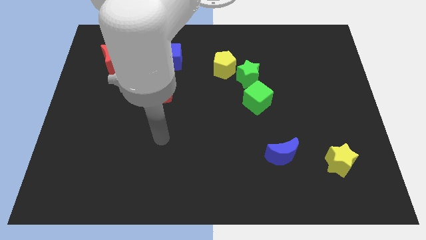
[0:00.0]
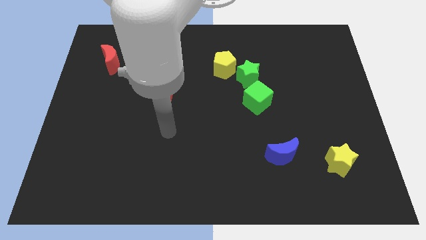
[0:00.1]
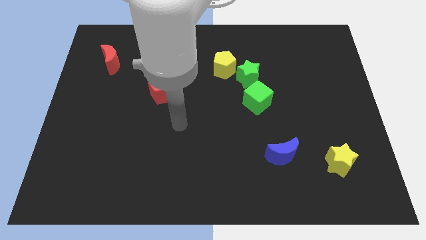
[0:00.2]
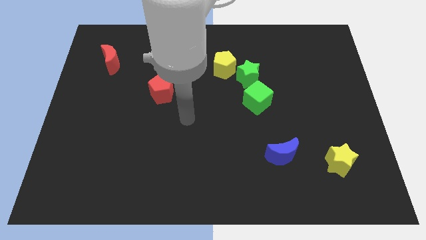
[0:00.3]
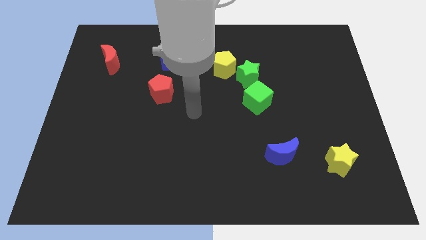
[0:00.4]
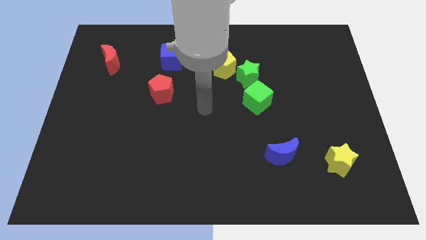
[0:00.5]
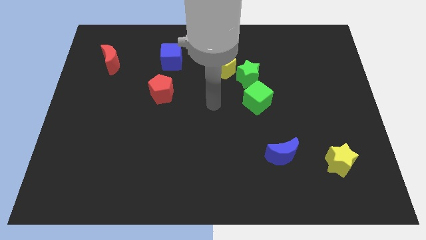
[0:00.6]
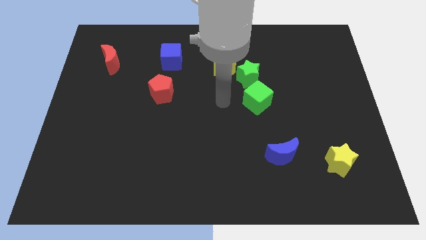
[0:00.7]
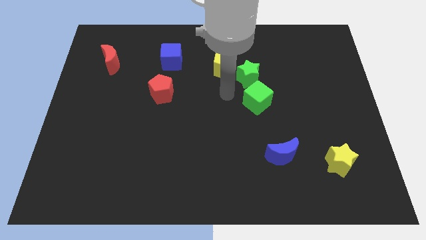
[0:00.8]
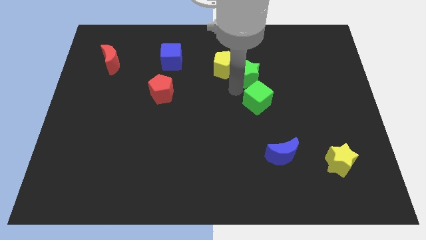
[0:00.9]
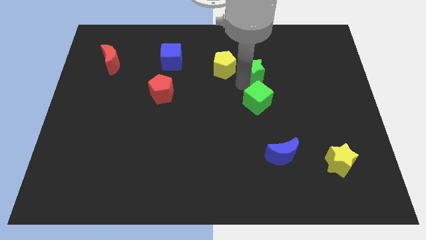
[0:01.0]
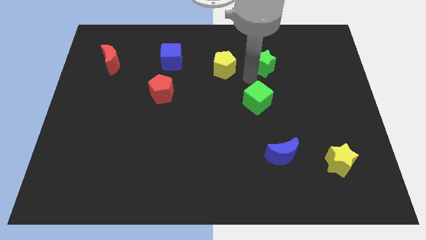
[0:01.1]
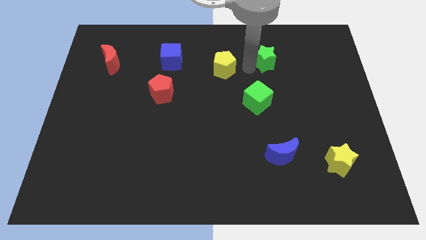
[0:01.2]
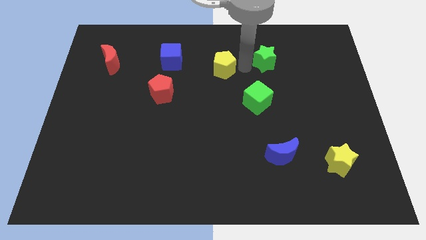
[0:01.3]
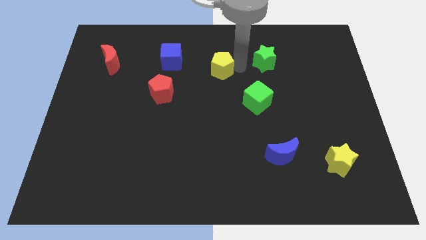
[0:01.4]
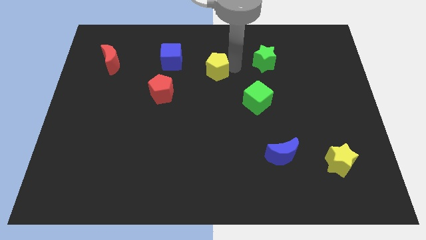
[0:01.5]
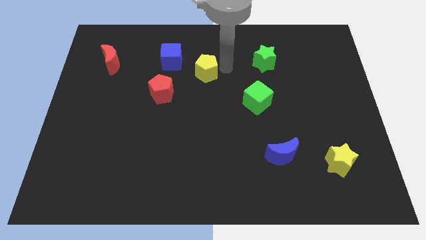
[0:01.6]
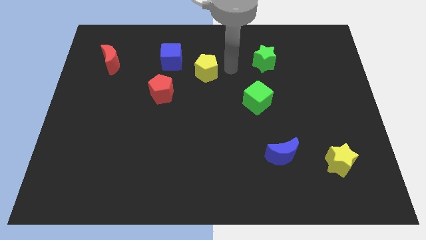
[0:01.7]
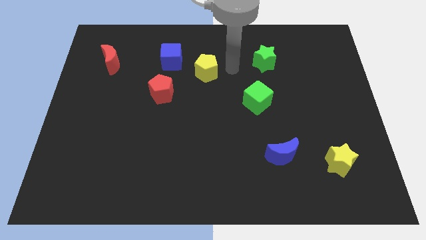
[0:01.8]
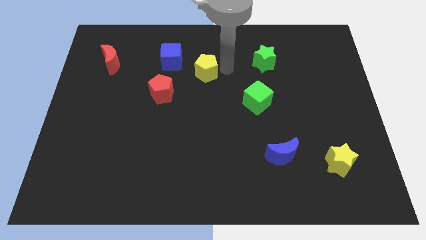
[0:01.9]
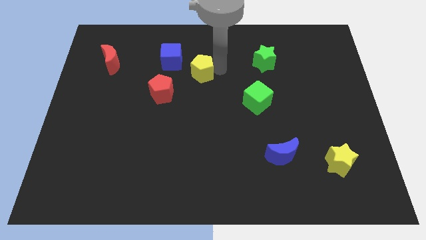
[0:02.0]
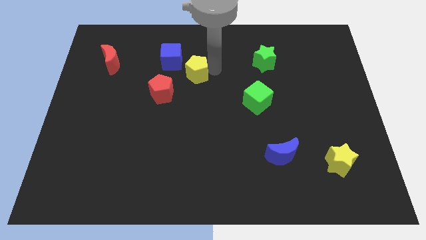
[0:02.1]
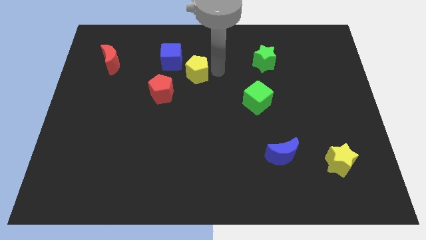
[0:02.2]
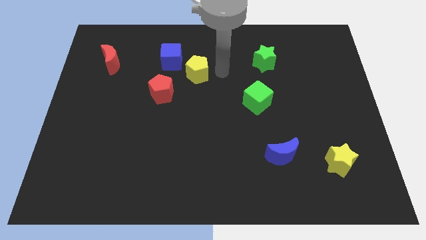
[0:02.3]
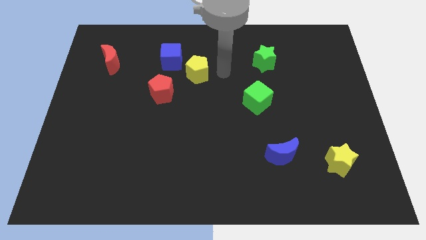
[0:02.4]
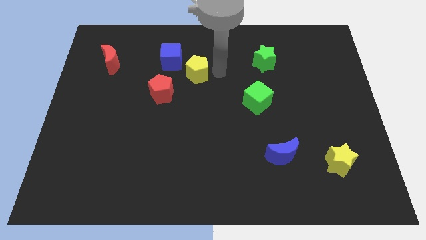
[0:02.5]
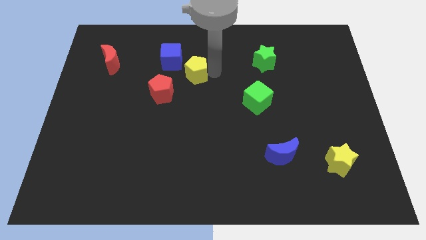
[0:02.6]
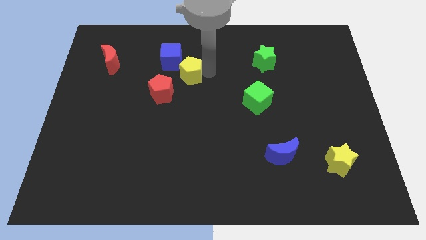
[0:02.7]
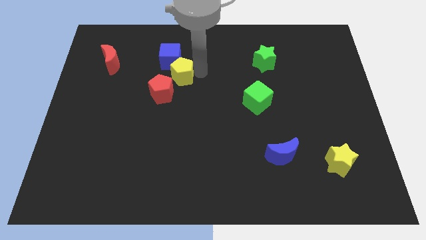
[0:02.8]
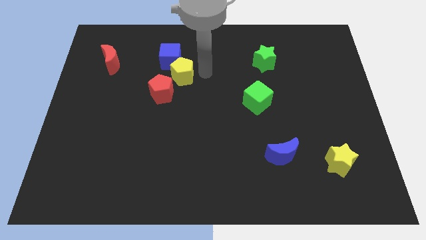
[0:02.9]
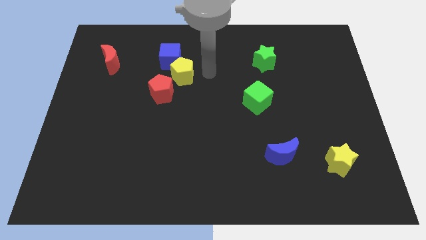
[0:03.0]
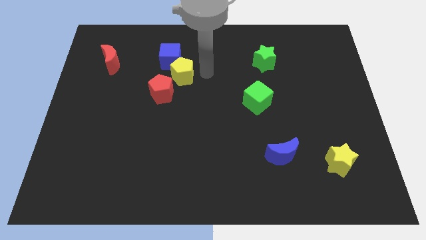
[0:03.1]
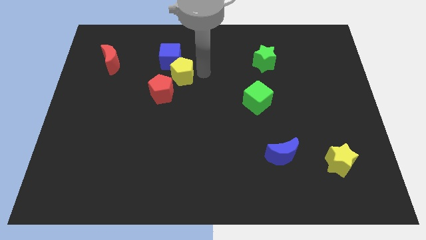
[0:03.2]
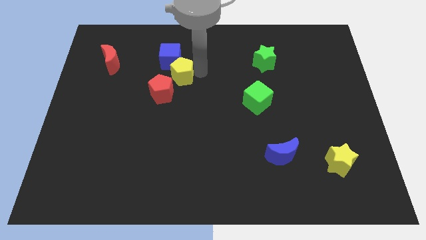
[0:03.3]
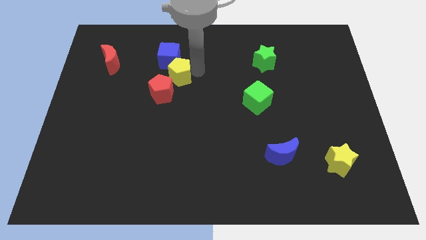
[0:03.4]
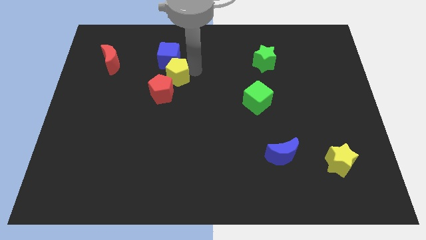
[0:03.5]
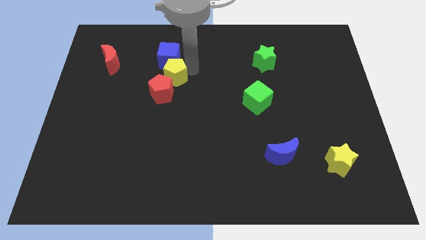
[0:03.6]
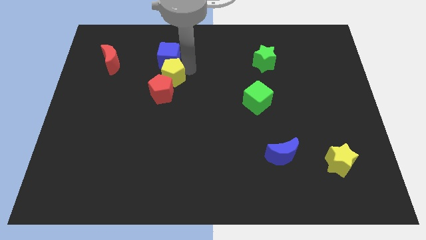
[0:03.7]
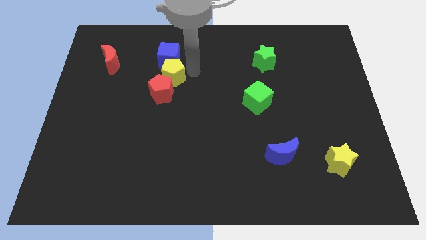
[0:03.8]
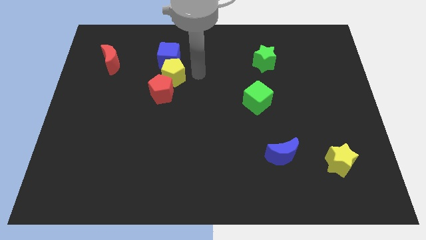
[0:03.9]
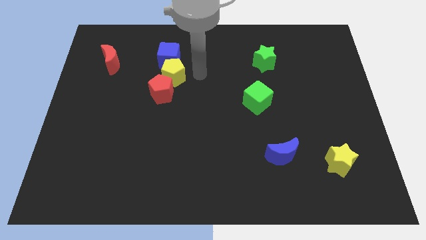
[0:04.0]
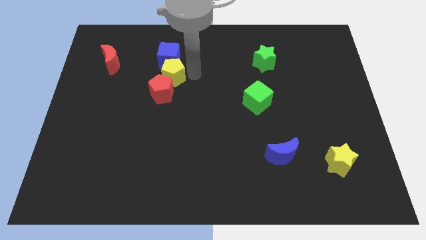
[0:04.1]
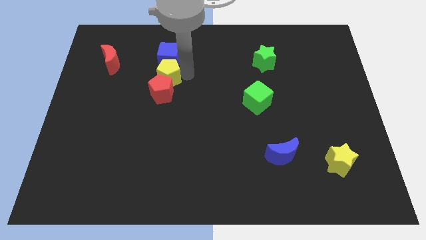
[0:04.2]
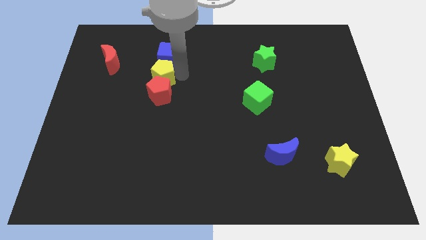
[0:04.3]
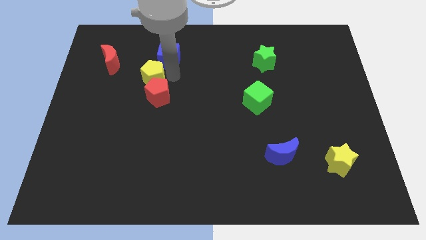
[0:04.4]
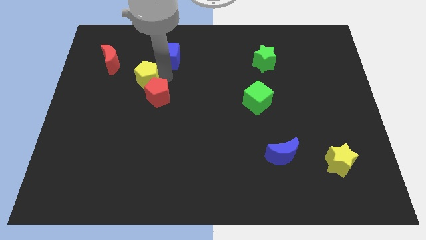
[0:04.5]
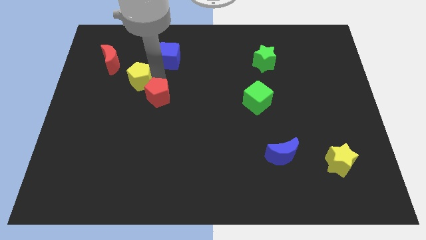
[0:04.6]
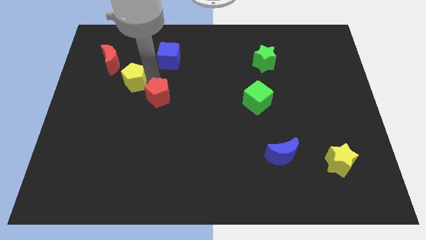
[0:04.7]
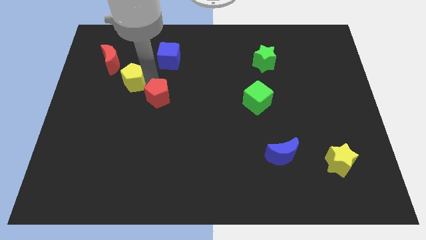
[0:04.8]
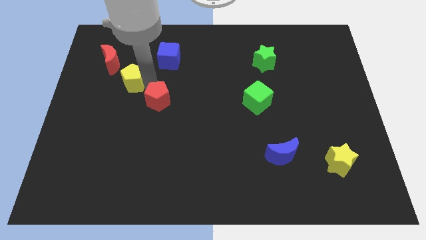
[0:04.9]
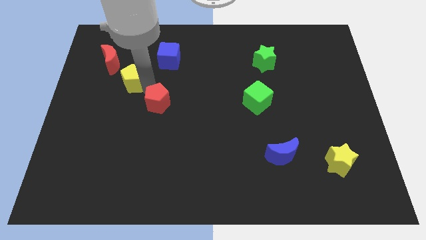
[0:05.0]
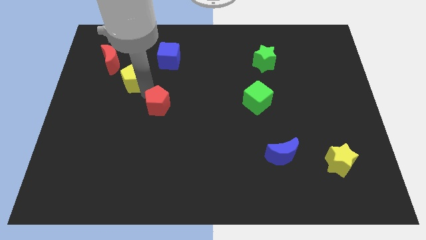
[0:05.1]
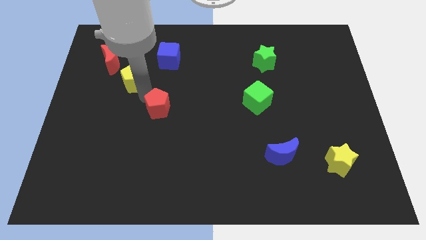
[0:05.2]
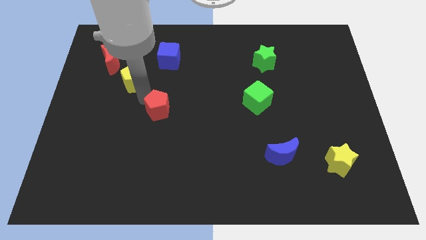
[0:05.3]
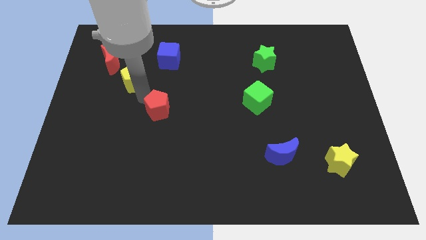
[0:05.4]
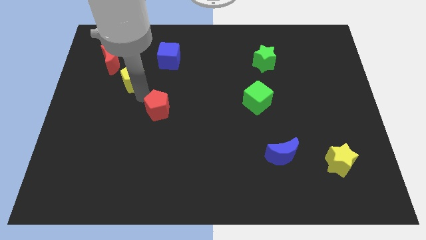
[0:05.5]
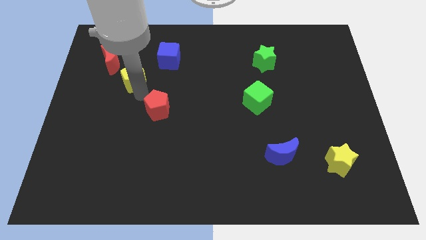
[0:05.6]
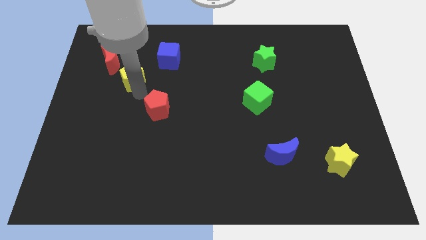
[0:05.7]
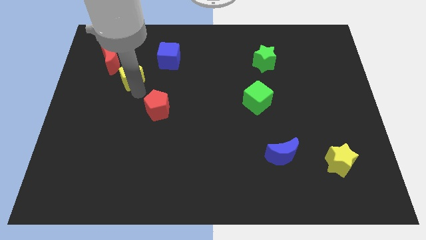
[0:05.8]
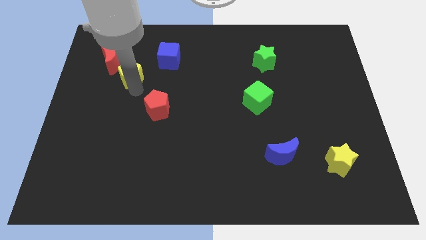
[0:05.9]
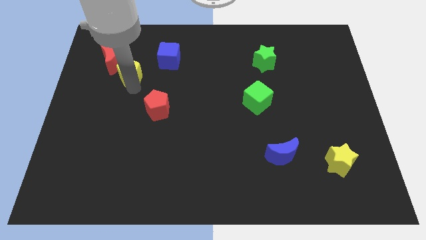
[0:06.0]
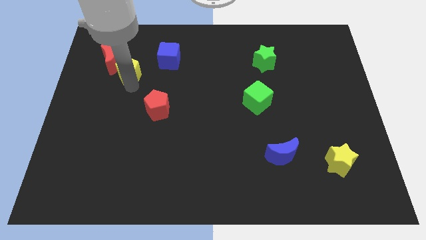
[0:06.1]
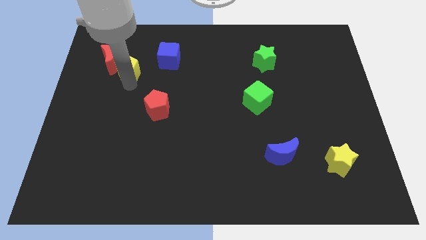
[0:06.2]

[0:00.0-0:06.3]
push the yellow pentagon close to the red moon
